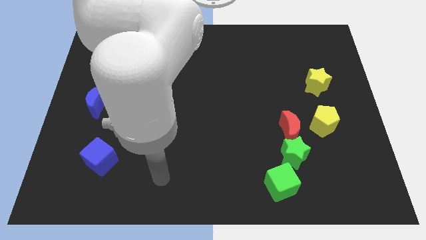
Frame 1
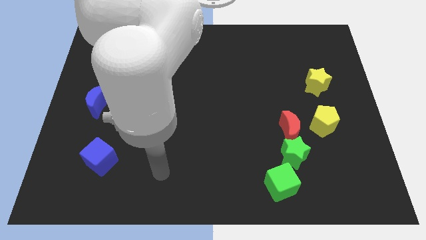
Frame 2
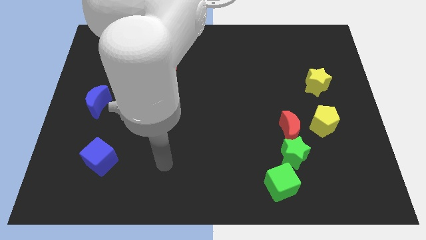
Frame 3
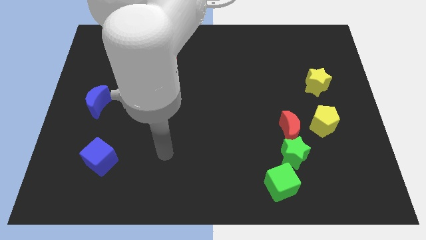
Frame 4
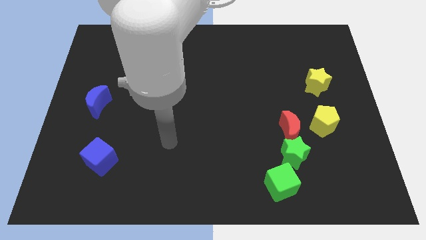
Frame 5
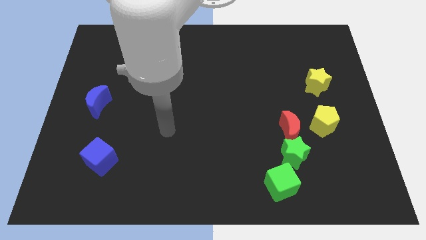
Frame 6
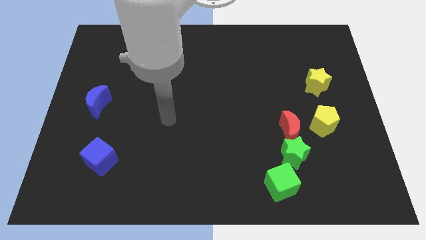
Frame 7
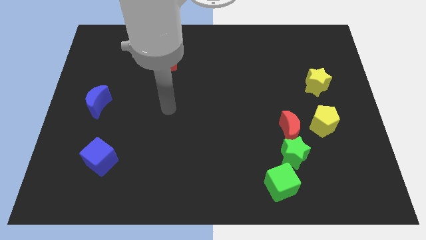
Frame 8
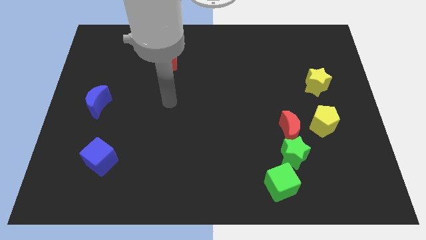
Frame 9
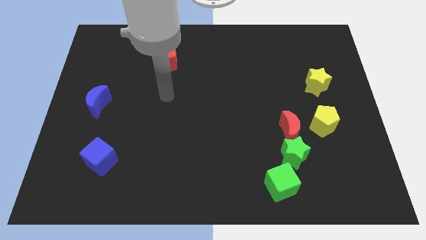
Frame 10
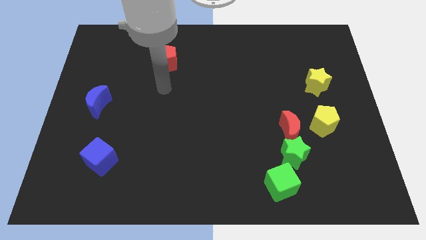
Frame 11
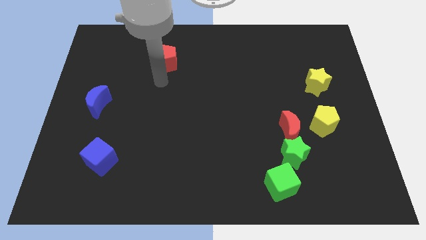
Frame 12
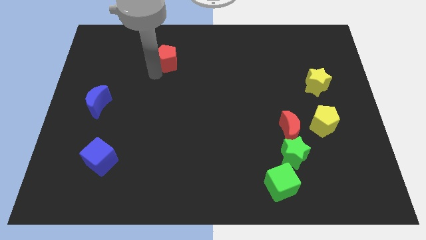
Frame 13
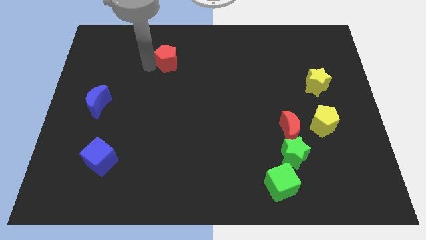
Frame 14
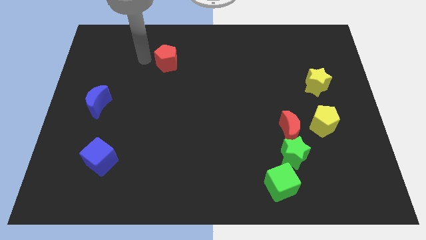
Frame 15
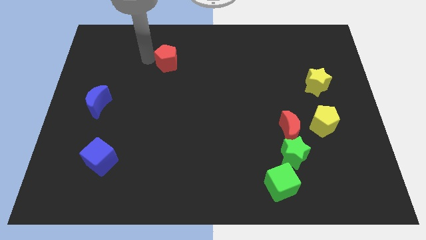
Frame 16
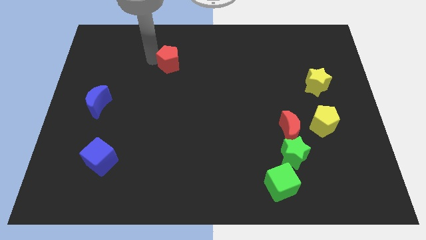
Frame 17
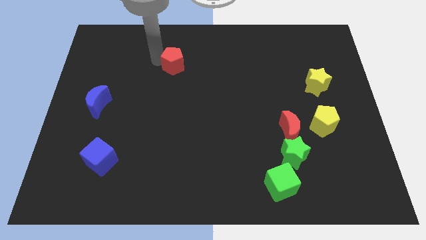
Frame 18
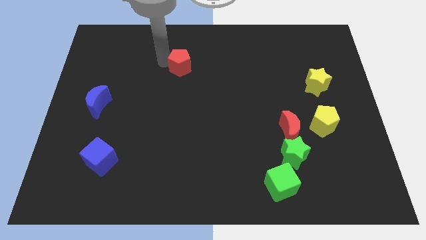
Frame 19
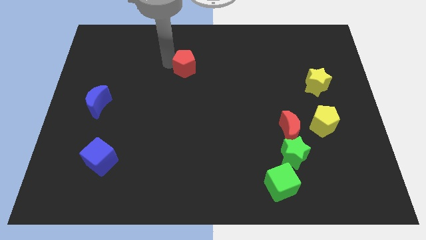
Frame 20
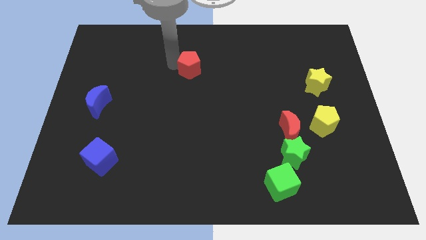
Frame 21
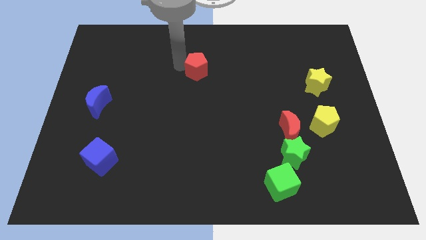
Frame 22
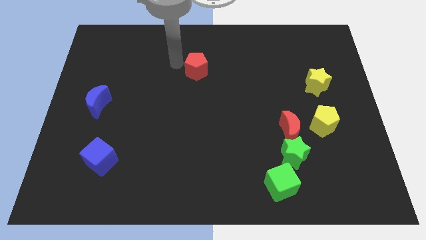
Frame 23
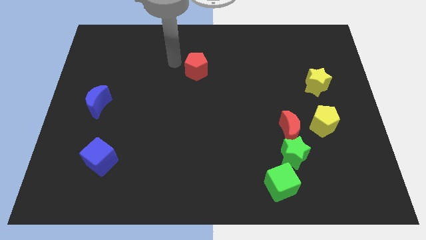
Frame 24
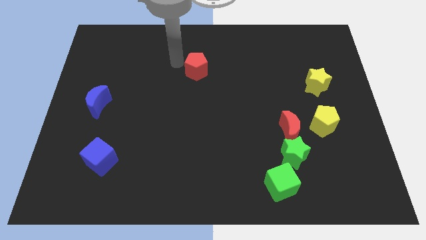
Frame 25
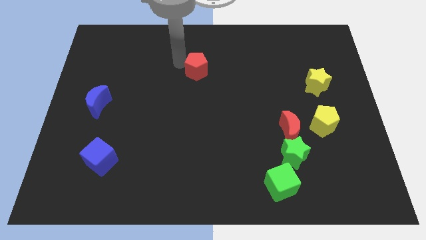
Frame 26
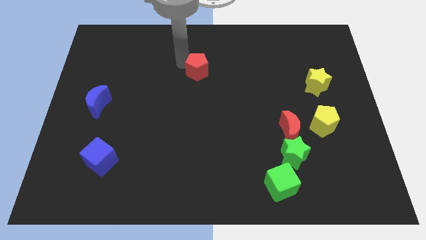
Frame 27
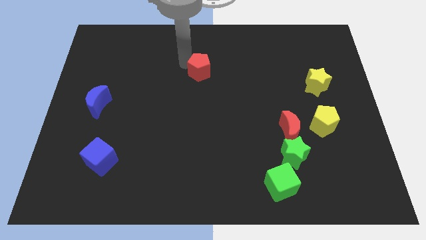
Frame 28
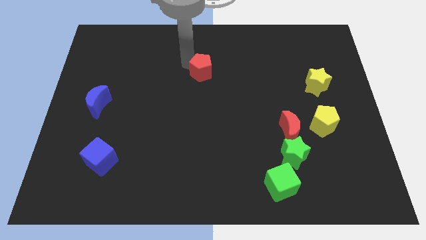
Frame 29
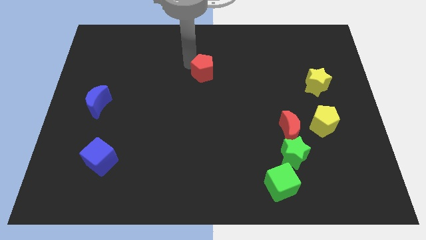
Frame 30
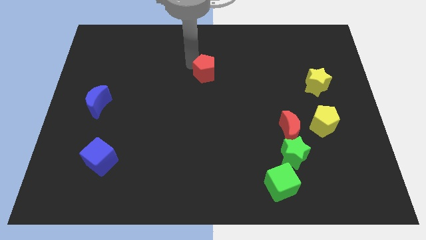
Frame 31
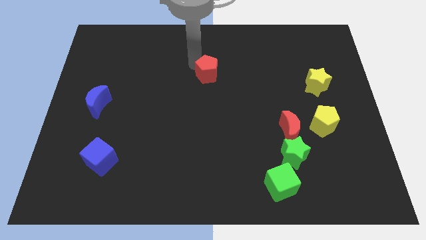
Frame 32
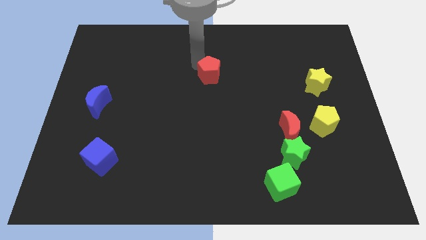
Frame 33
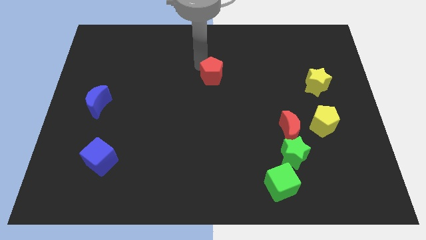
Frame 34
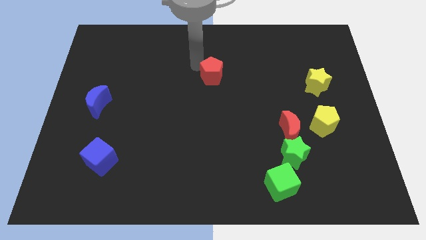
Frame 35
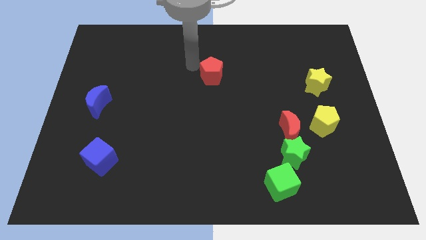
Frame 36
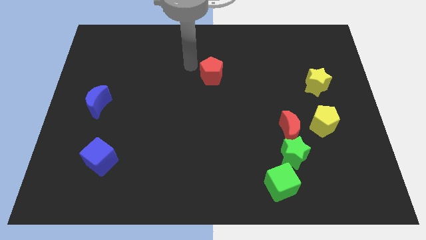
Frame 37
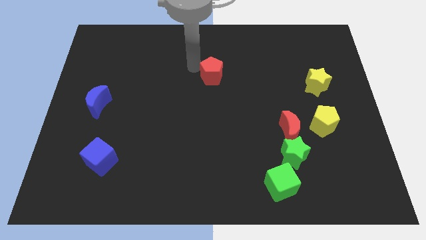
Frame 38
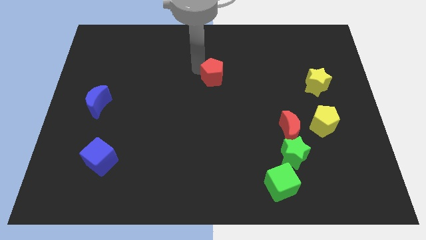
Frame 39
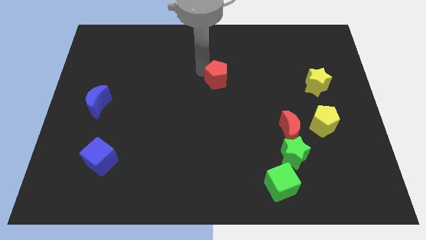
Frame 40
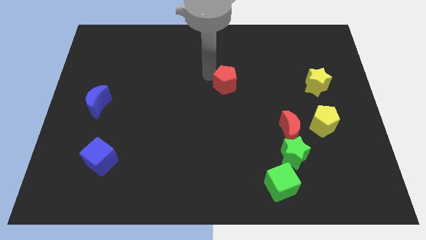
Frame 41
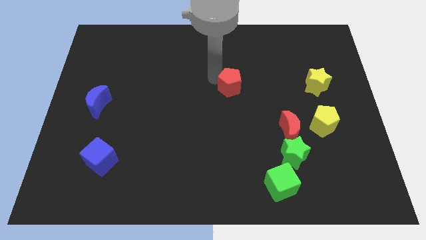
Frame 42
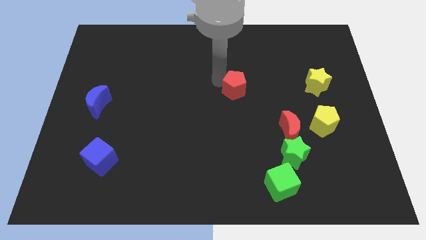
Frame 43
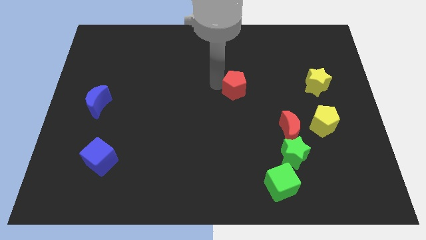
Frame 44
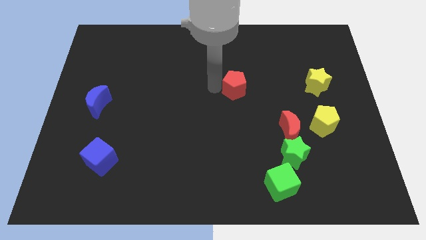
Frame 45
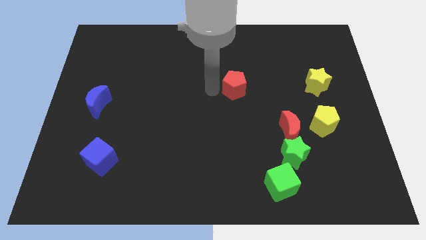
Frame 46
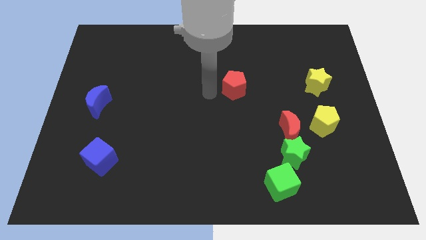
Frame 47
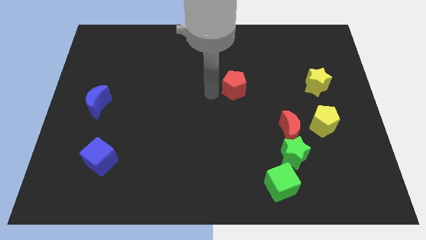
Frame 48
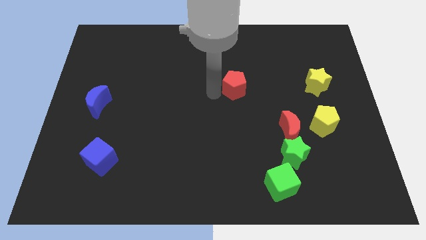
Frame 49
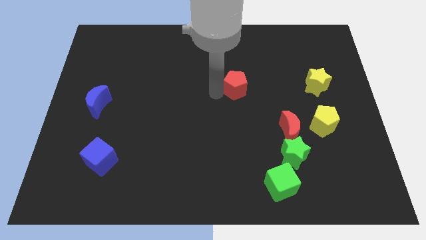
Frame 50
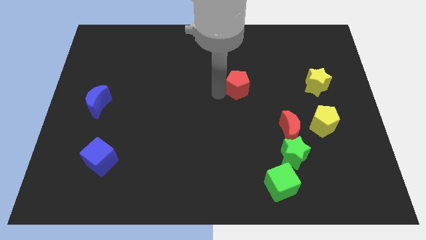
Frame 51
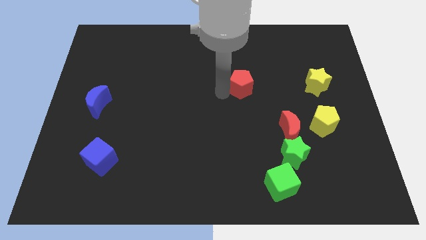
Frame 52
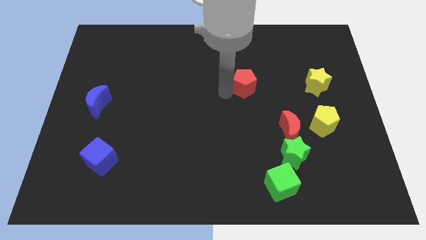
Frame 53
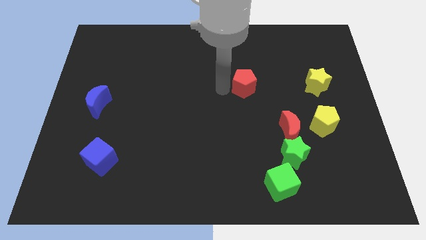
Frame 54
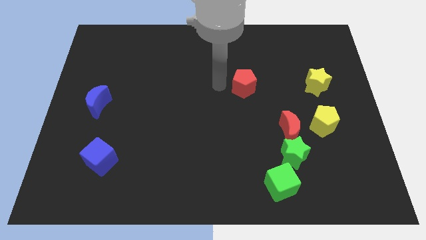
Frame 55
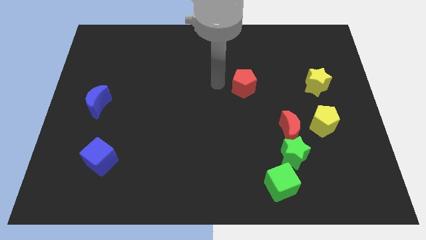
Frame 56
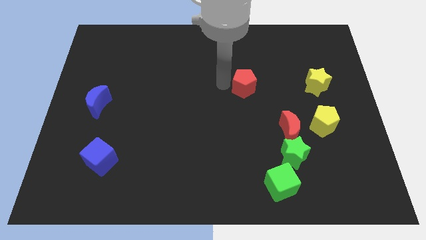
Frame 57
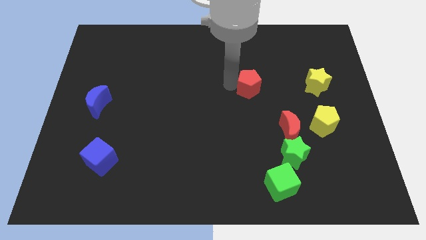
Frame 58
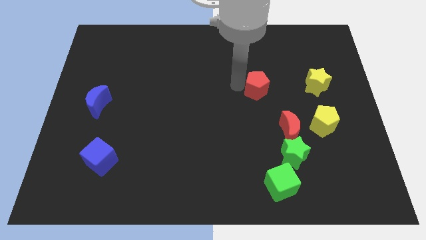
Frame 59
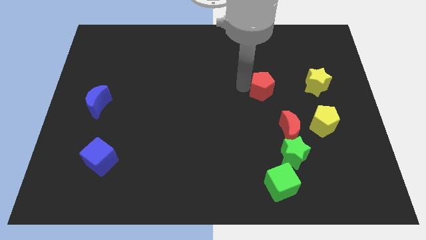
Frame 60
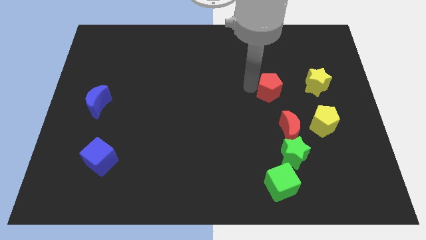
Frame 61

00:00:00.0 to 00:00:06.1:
slide the red pentagon to the top side of the red moon

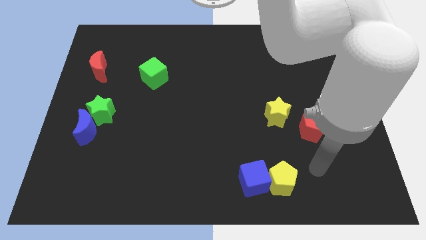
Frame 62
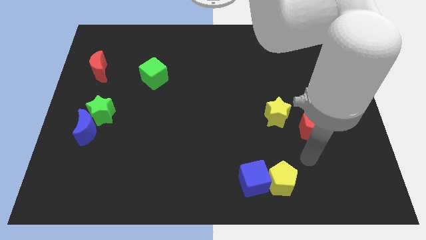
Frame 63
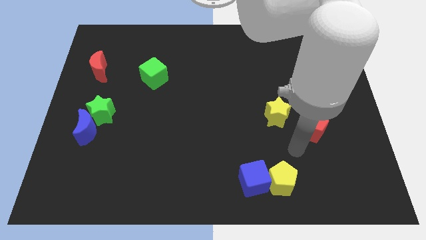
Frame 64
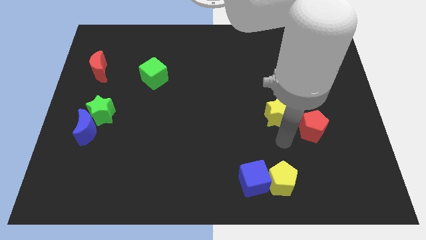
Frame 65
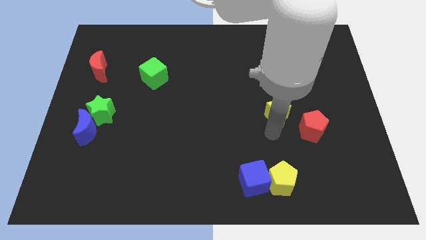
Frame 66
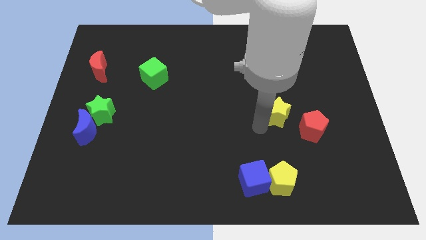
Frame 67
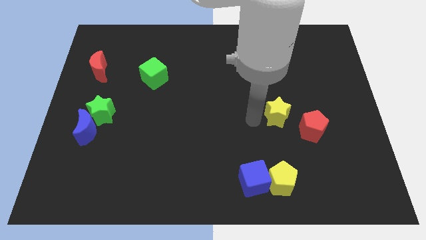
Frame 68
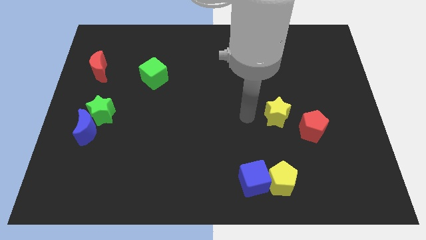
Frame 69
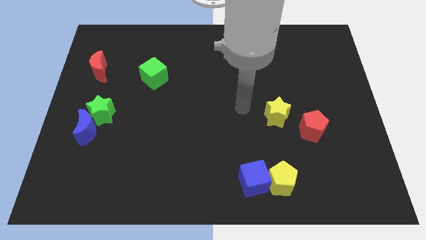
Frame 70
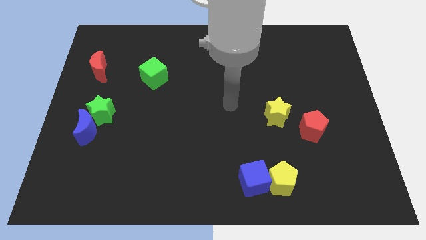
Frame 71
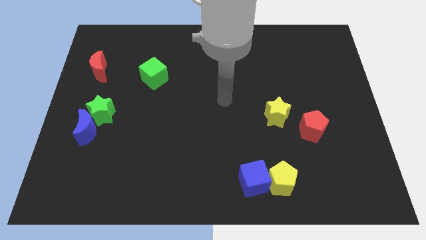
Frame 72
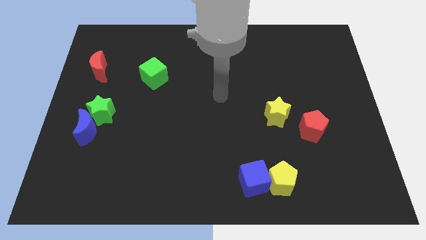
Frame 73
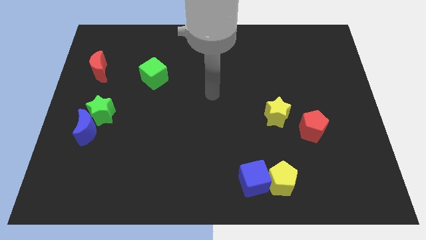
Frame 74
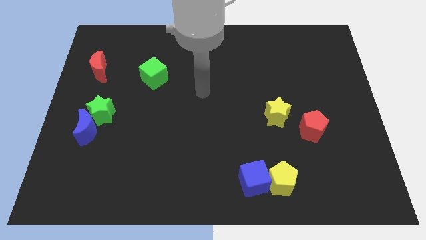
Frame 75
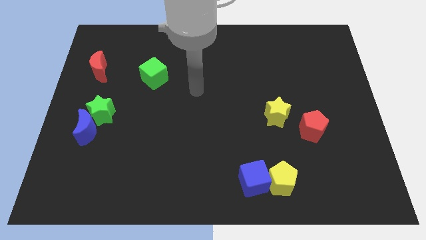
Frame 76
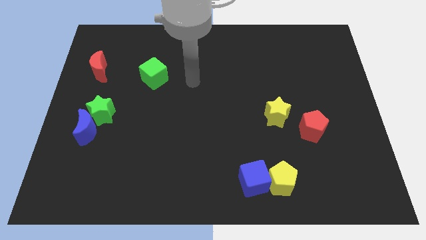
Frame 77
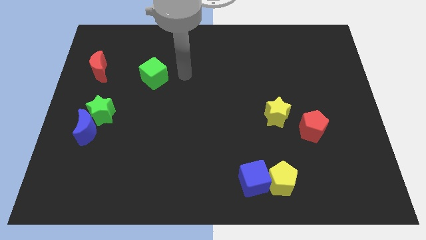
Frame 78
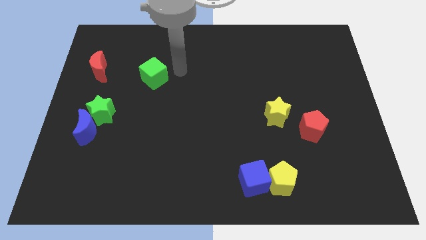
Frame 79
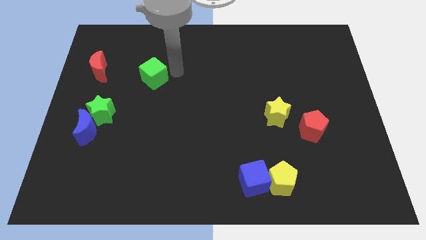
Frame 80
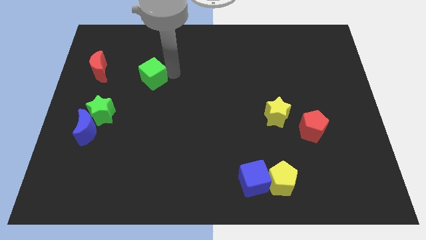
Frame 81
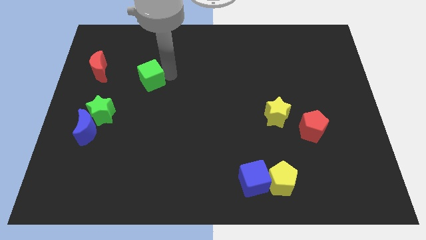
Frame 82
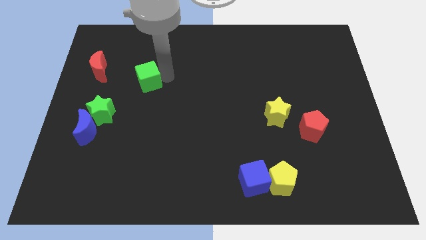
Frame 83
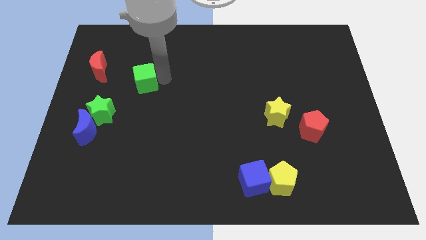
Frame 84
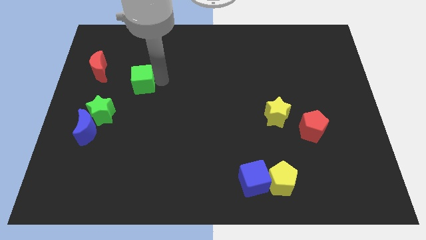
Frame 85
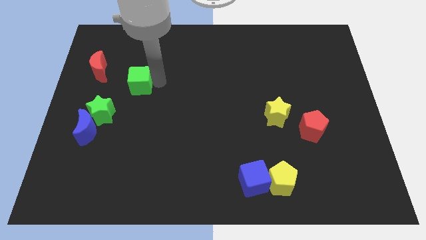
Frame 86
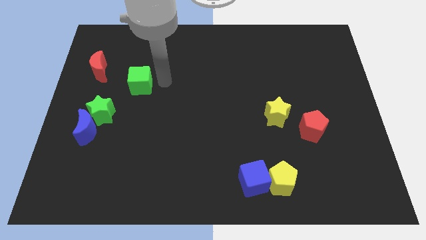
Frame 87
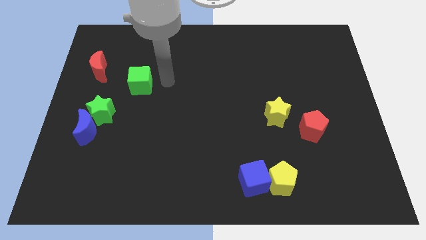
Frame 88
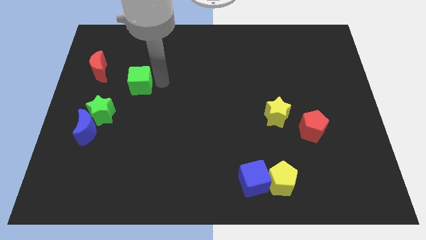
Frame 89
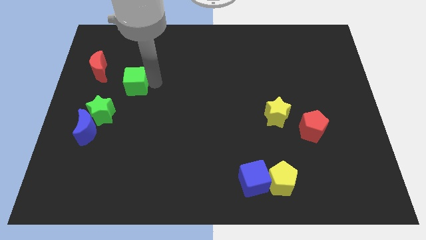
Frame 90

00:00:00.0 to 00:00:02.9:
push the green cube to the bottom right side of the red moon
